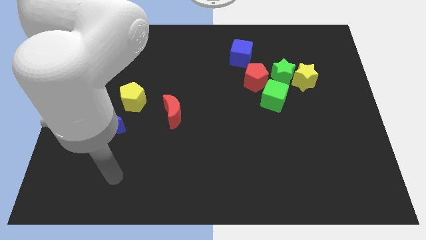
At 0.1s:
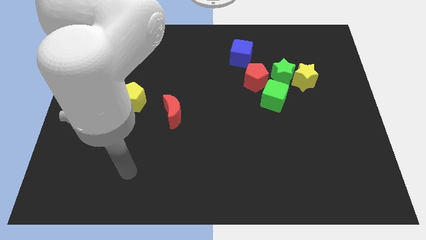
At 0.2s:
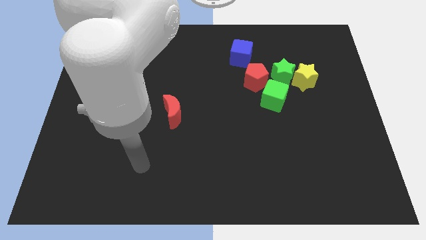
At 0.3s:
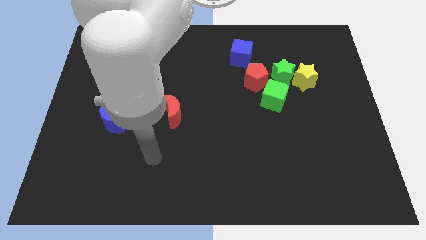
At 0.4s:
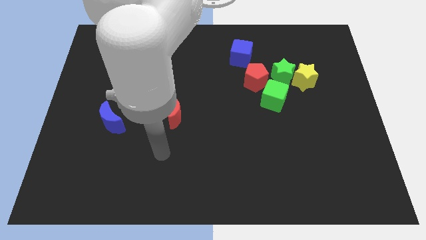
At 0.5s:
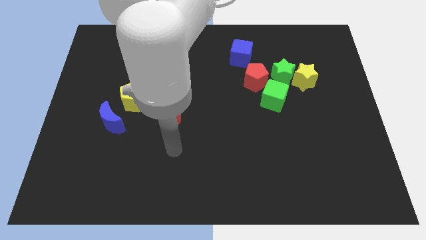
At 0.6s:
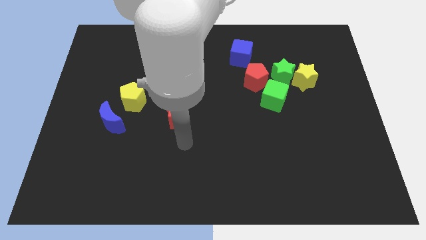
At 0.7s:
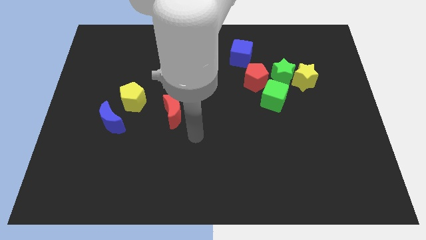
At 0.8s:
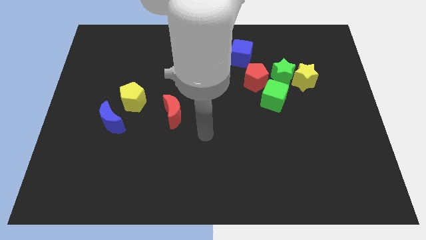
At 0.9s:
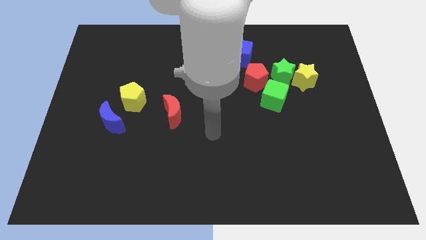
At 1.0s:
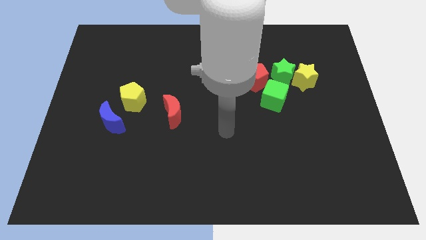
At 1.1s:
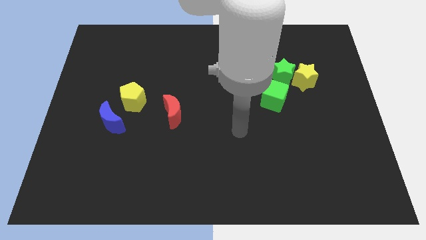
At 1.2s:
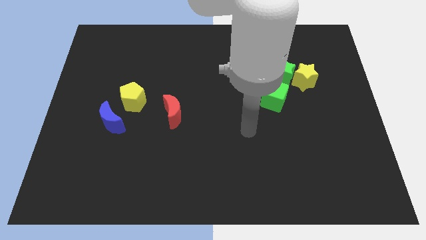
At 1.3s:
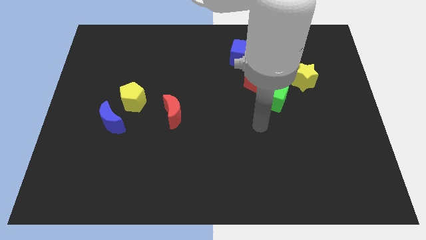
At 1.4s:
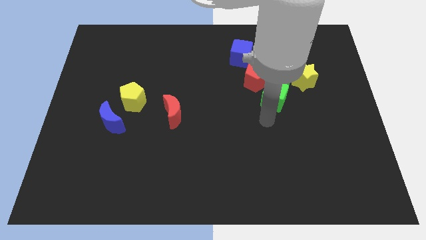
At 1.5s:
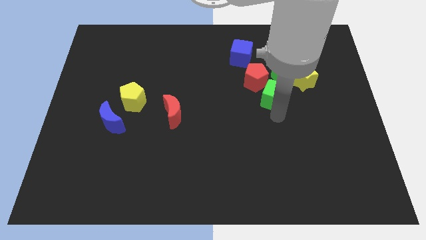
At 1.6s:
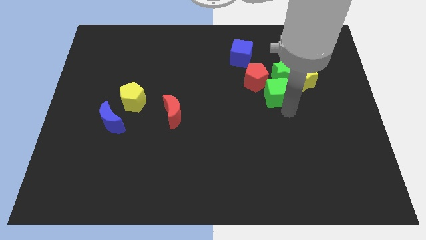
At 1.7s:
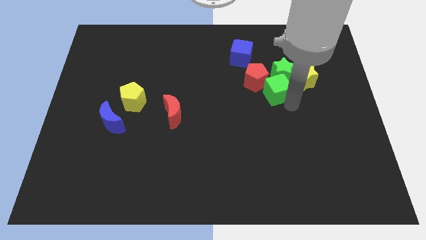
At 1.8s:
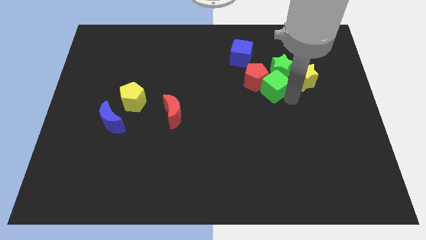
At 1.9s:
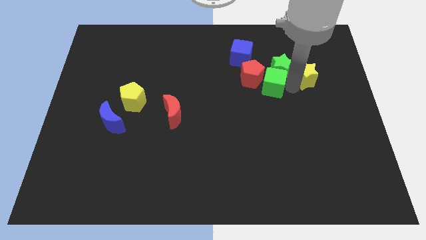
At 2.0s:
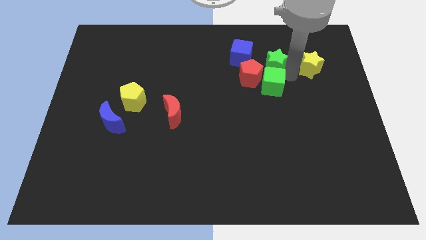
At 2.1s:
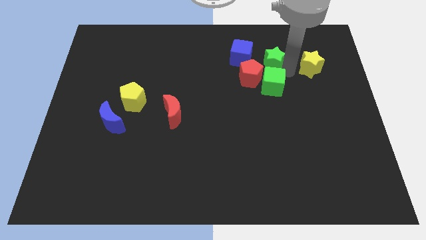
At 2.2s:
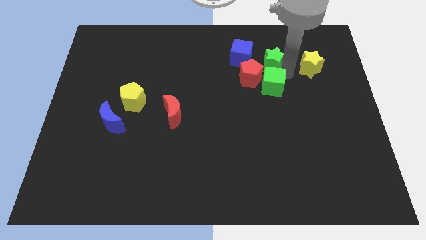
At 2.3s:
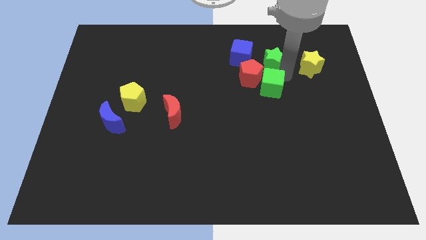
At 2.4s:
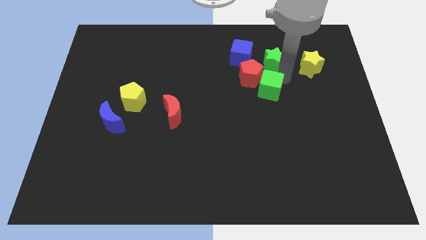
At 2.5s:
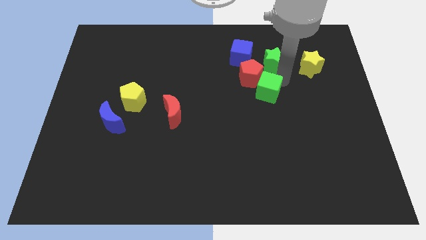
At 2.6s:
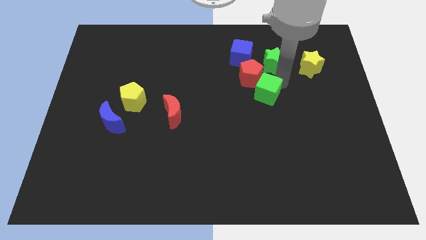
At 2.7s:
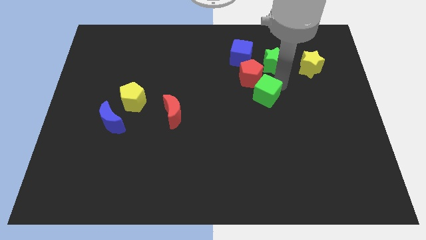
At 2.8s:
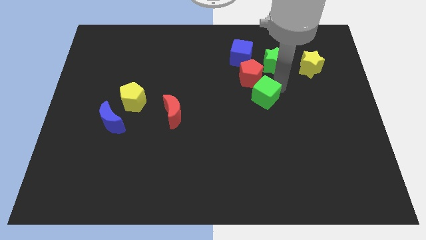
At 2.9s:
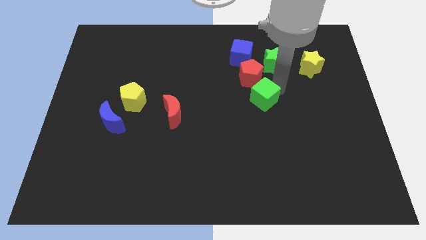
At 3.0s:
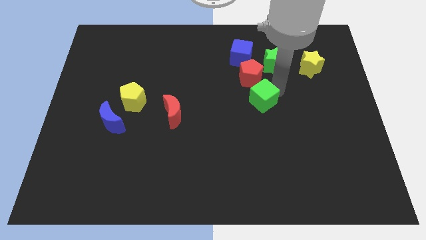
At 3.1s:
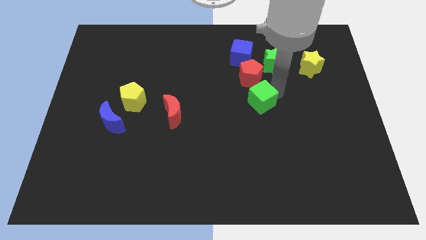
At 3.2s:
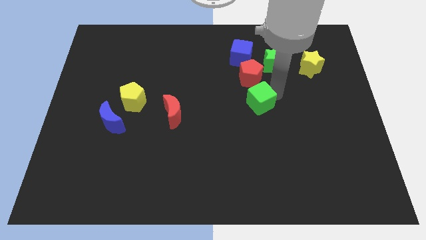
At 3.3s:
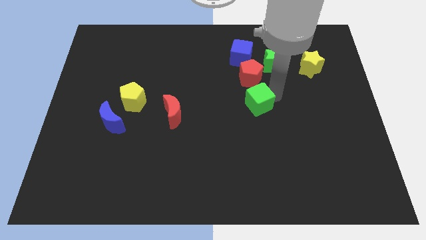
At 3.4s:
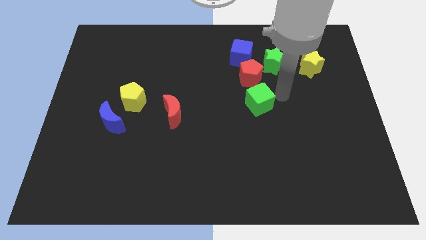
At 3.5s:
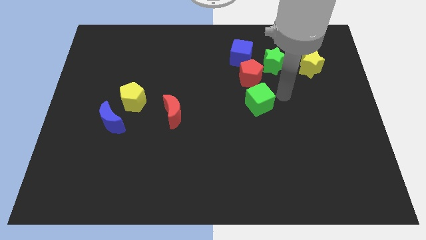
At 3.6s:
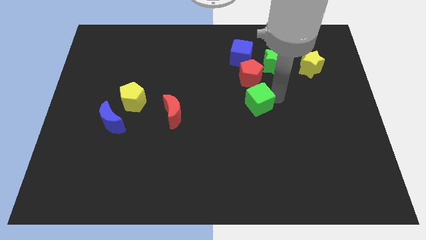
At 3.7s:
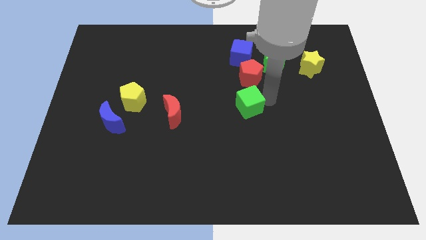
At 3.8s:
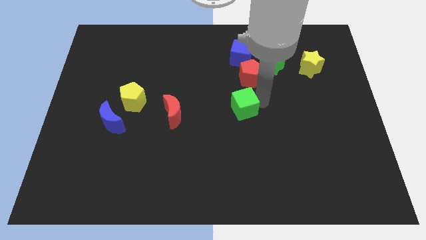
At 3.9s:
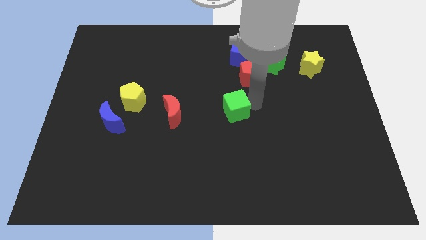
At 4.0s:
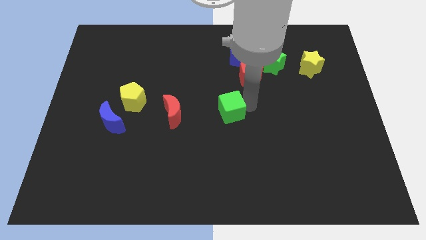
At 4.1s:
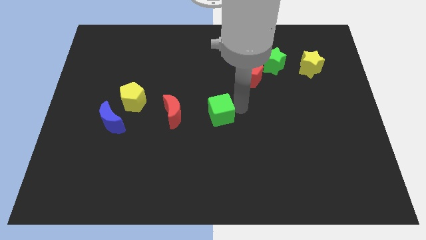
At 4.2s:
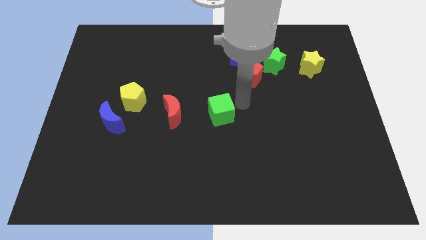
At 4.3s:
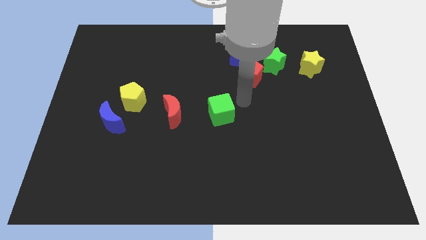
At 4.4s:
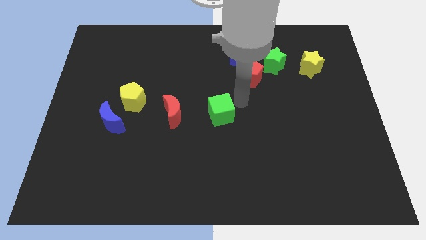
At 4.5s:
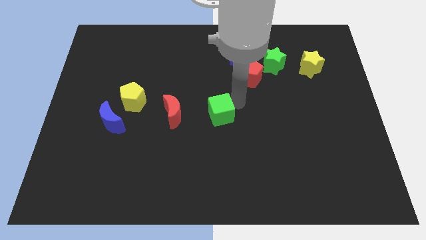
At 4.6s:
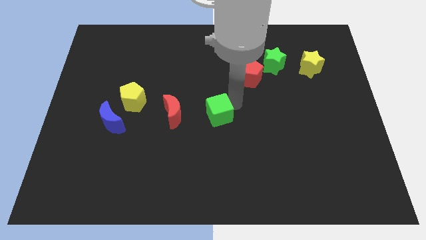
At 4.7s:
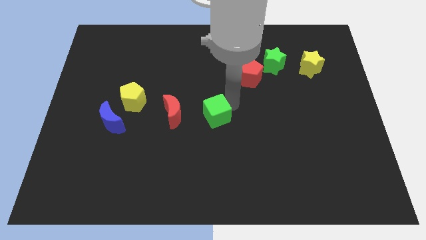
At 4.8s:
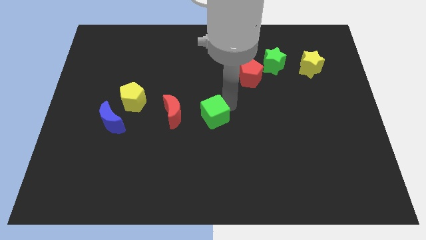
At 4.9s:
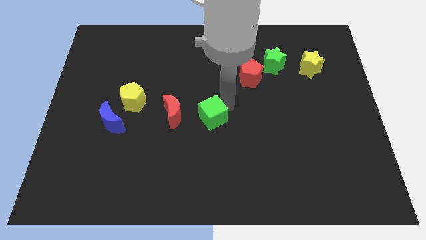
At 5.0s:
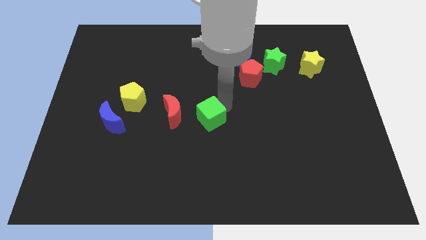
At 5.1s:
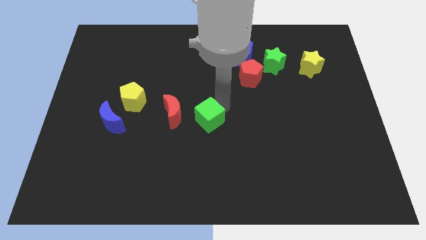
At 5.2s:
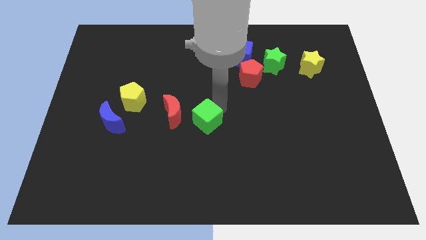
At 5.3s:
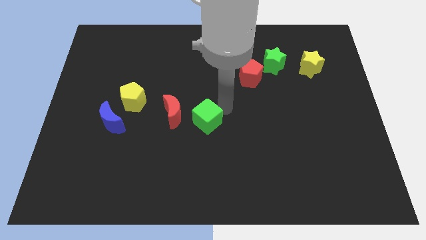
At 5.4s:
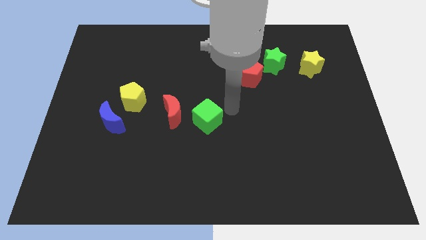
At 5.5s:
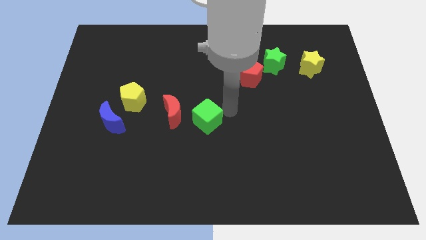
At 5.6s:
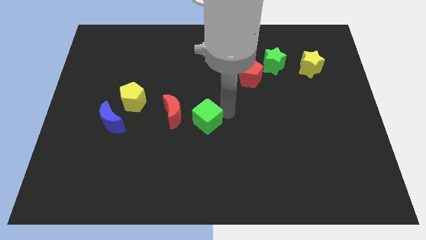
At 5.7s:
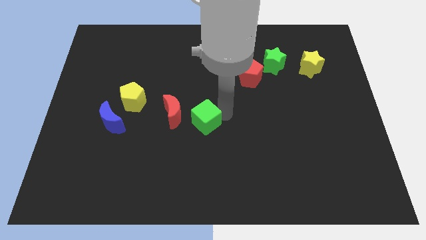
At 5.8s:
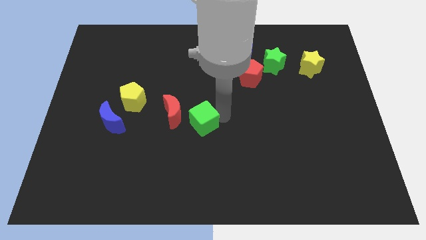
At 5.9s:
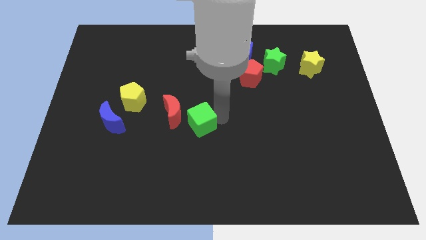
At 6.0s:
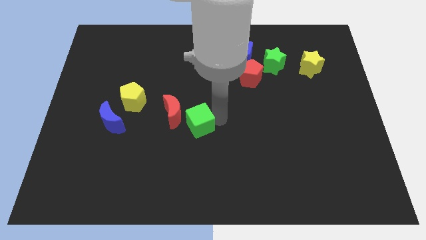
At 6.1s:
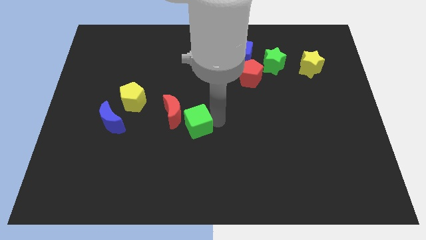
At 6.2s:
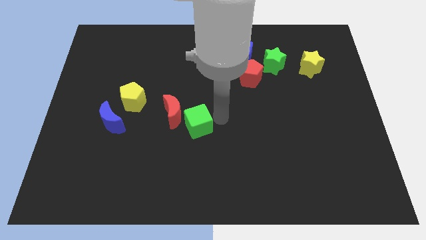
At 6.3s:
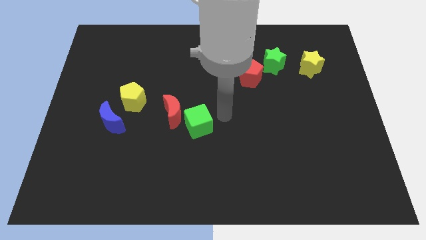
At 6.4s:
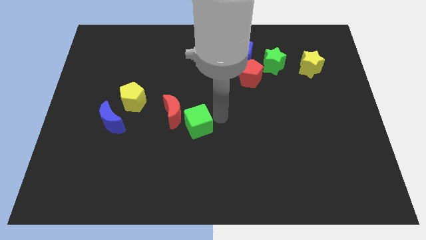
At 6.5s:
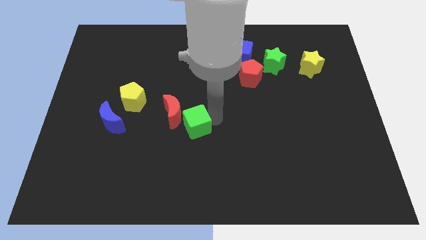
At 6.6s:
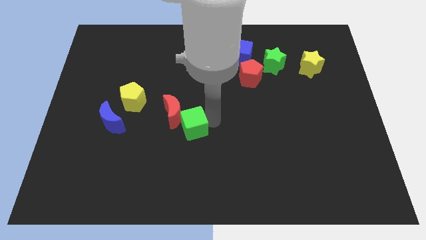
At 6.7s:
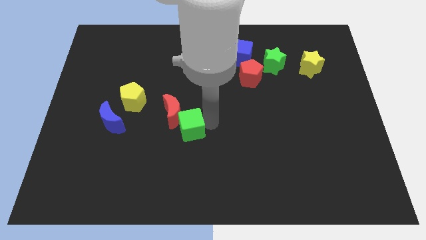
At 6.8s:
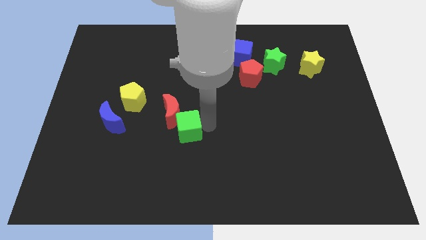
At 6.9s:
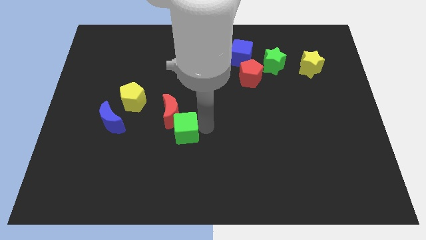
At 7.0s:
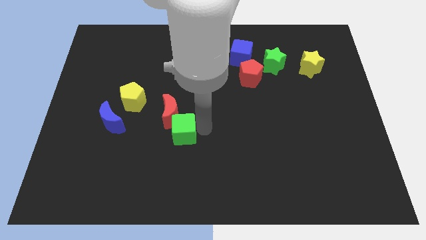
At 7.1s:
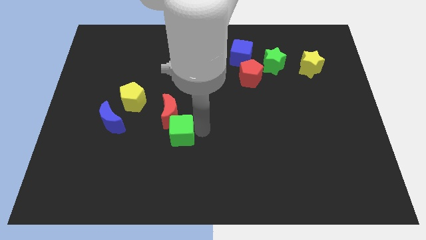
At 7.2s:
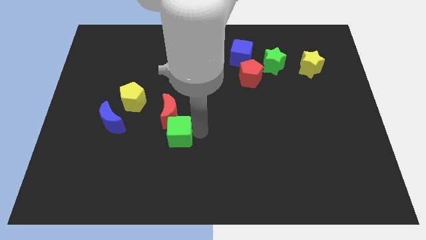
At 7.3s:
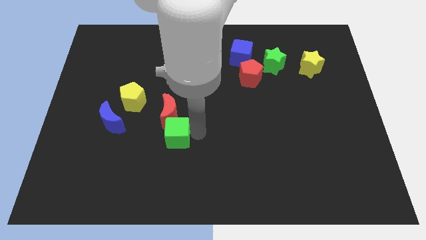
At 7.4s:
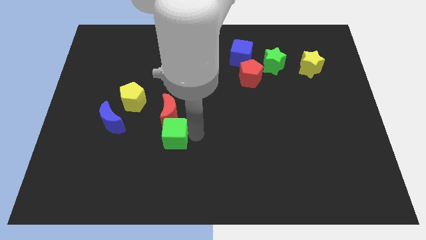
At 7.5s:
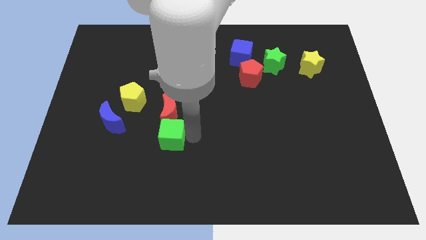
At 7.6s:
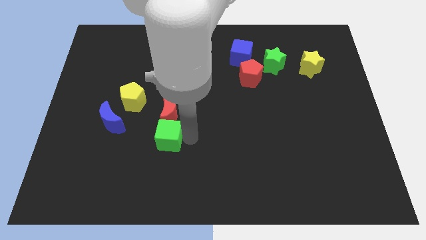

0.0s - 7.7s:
put the green cube diagonally down and to the left of the red moon

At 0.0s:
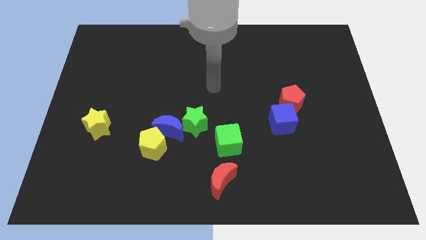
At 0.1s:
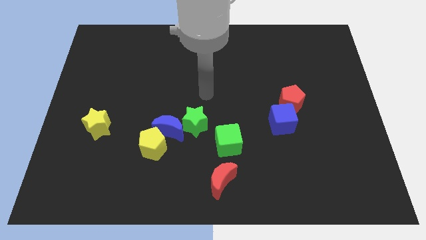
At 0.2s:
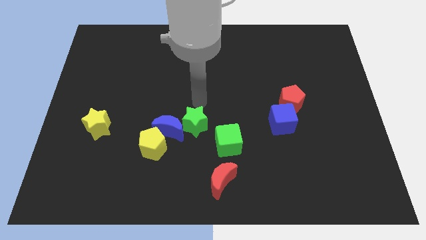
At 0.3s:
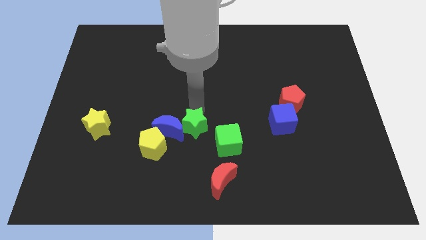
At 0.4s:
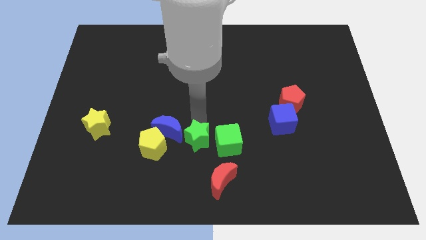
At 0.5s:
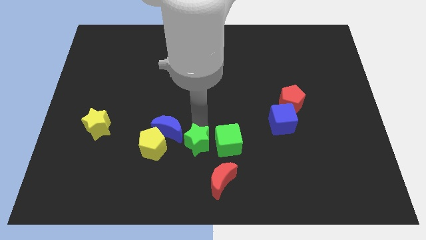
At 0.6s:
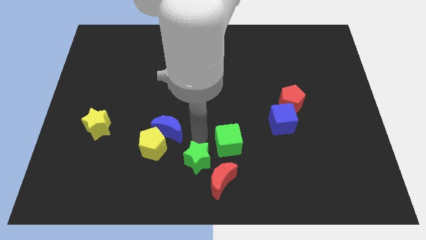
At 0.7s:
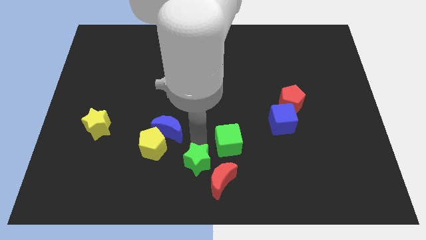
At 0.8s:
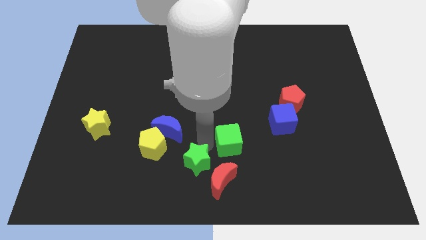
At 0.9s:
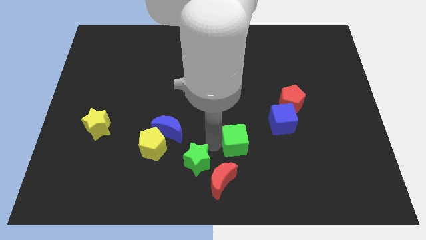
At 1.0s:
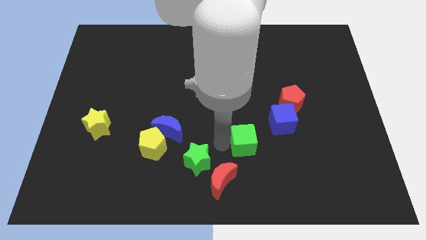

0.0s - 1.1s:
slide the green cube to the bottom left side of the blue cube

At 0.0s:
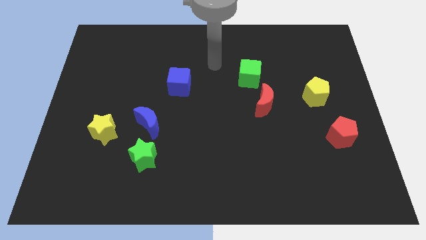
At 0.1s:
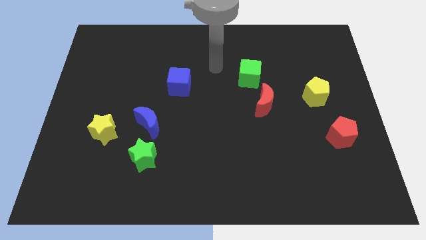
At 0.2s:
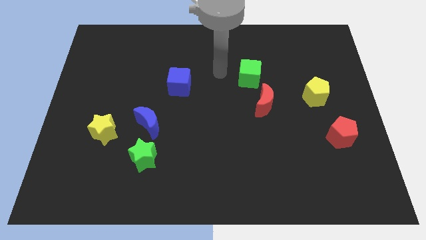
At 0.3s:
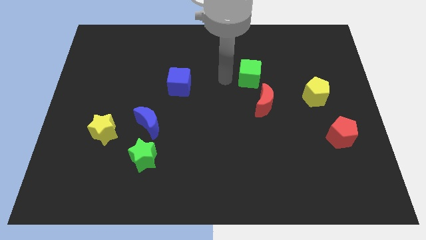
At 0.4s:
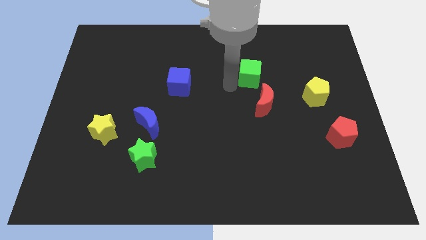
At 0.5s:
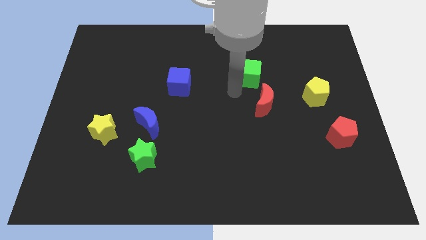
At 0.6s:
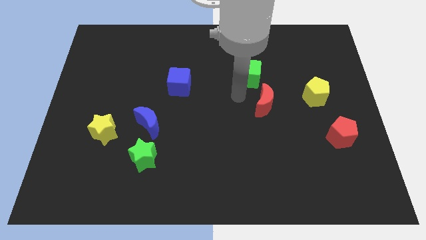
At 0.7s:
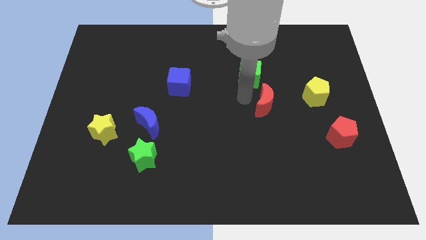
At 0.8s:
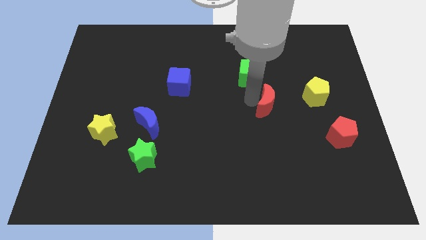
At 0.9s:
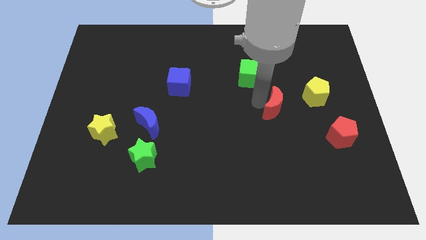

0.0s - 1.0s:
put the red moon diagonally down and to the left of the yellow pentagon
